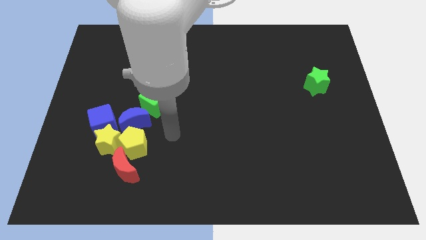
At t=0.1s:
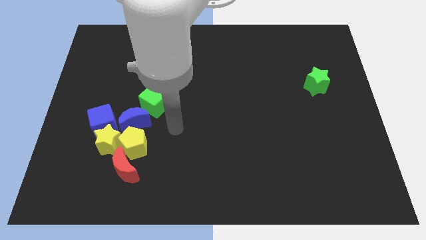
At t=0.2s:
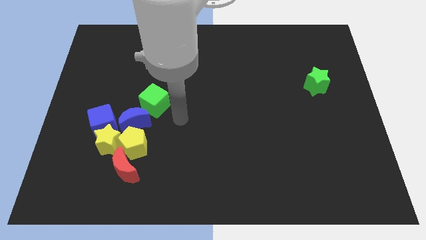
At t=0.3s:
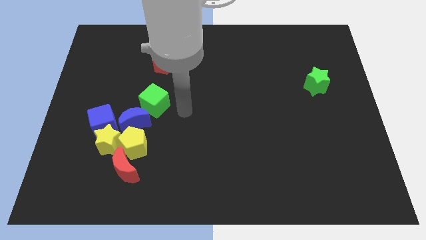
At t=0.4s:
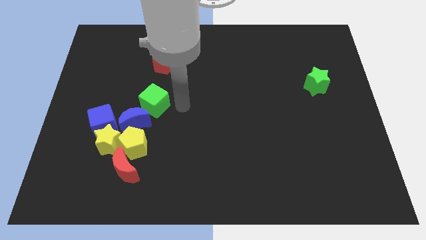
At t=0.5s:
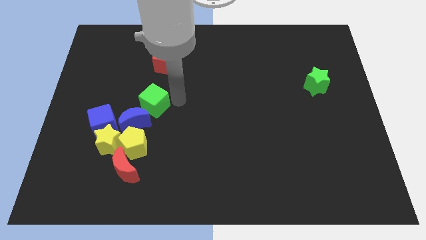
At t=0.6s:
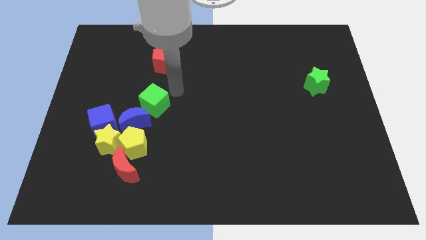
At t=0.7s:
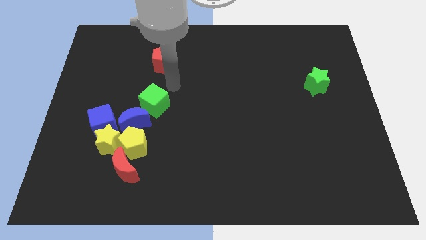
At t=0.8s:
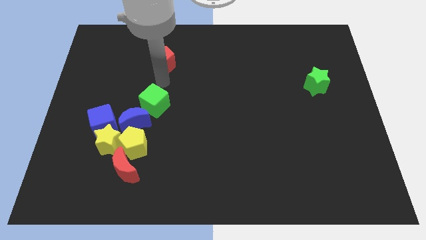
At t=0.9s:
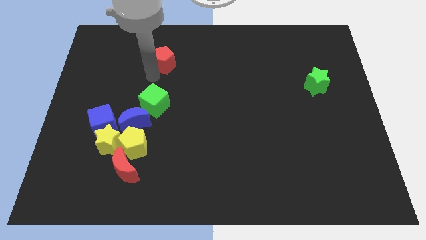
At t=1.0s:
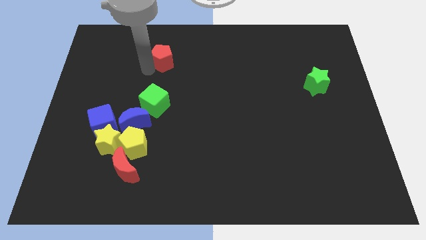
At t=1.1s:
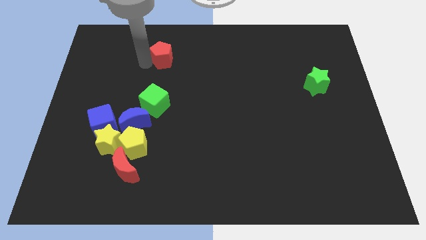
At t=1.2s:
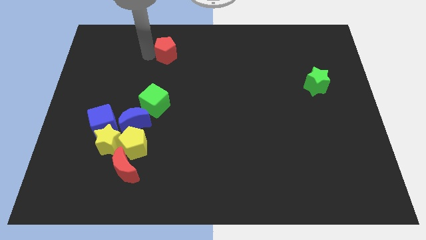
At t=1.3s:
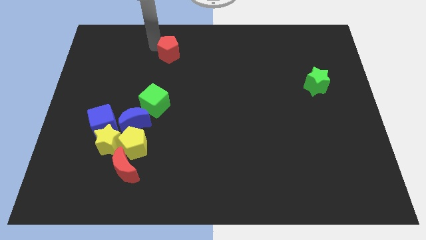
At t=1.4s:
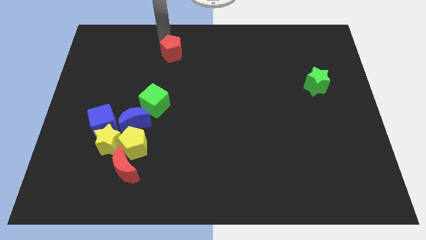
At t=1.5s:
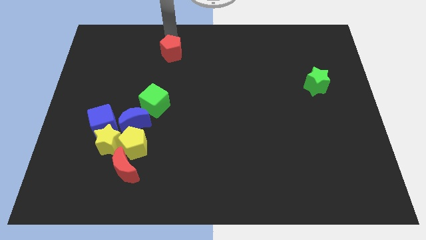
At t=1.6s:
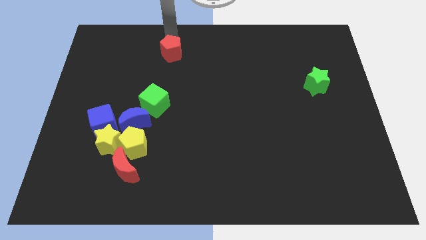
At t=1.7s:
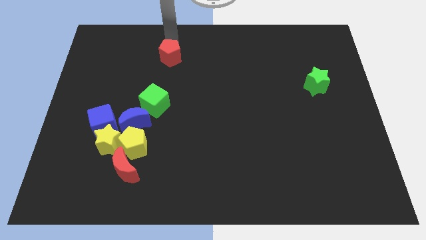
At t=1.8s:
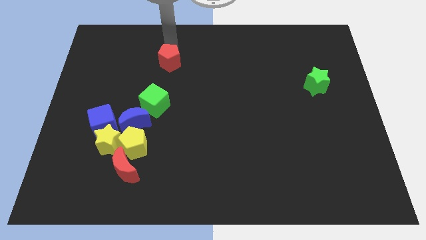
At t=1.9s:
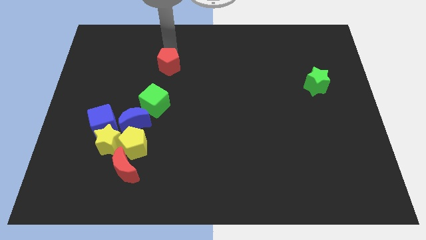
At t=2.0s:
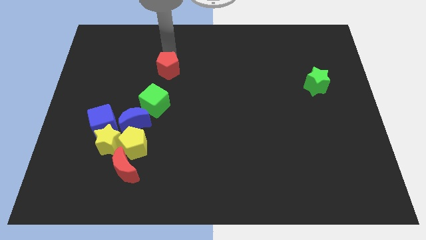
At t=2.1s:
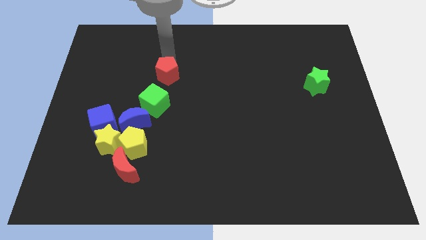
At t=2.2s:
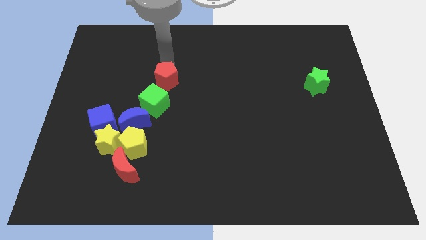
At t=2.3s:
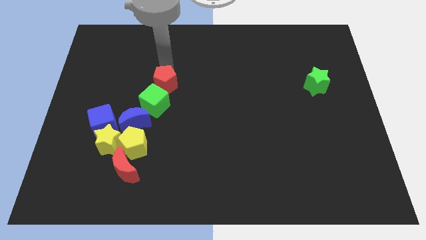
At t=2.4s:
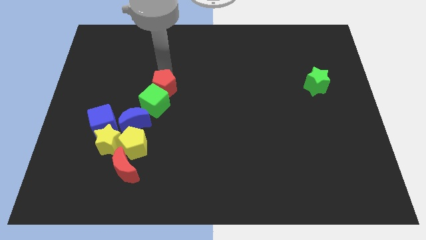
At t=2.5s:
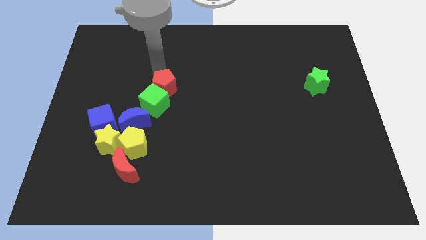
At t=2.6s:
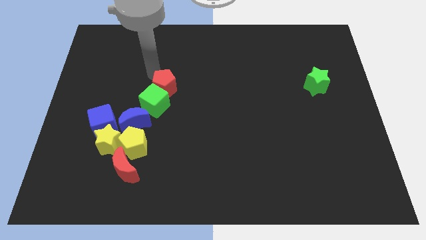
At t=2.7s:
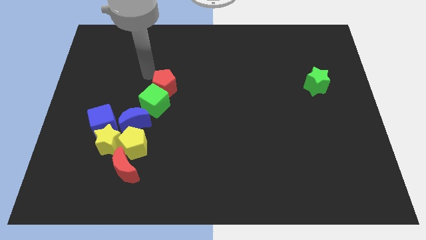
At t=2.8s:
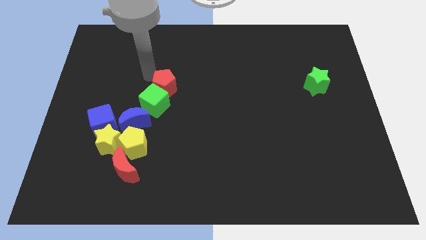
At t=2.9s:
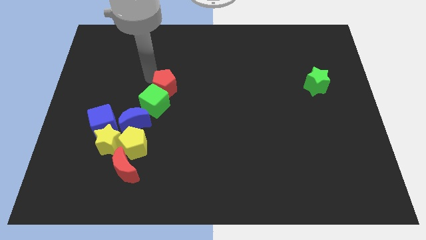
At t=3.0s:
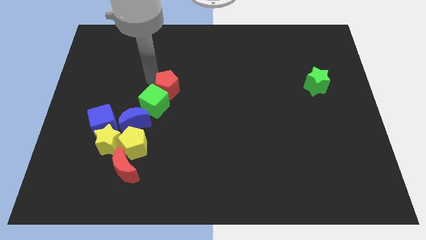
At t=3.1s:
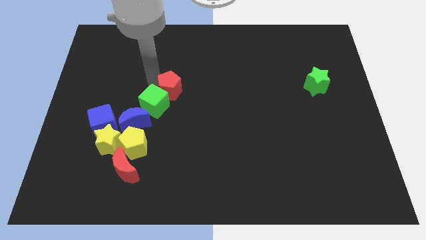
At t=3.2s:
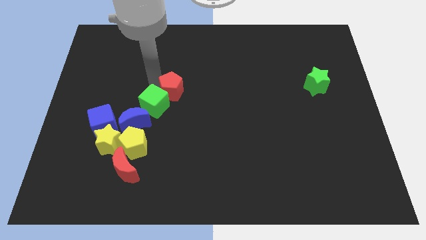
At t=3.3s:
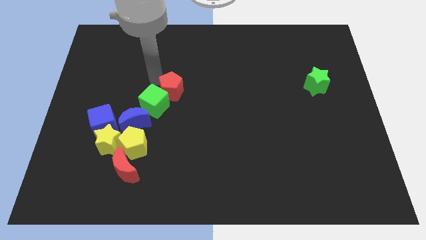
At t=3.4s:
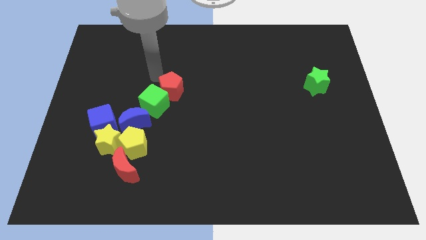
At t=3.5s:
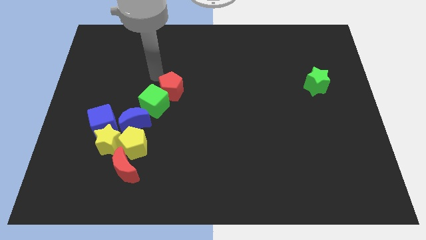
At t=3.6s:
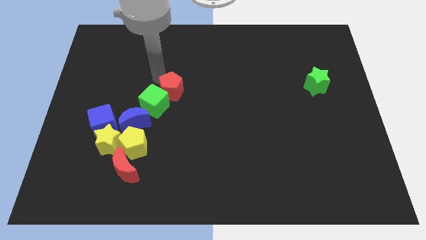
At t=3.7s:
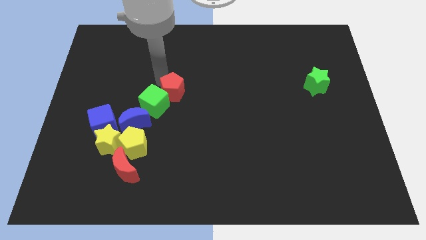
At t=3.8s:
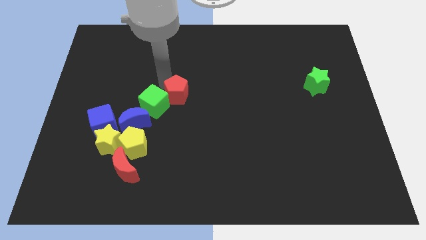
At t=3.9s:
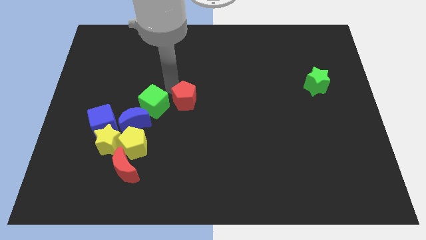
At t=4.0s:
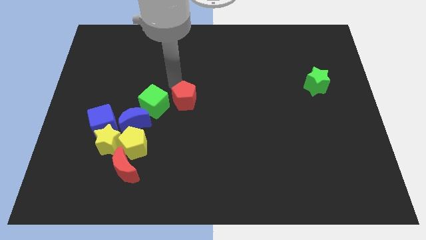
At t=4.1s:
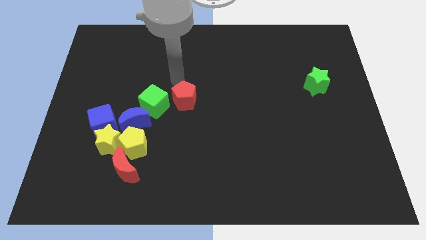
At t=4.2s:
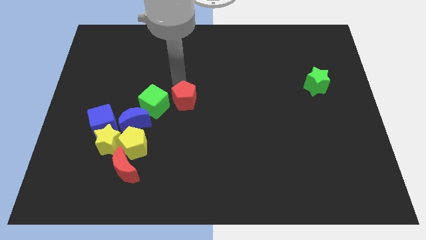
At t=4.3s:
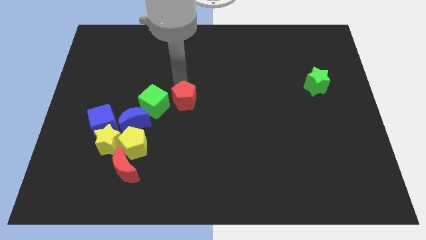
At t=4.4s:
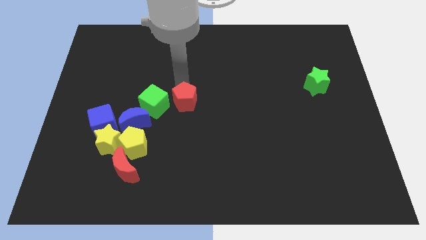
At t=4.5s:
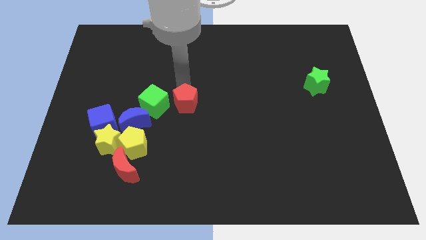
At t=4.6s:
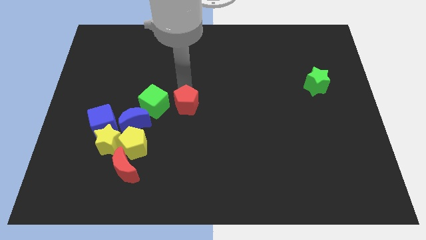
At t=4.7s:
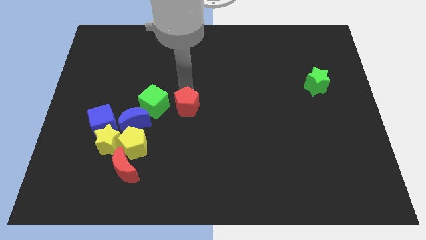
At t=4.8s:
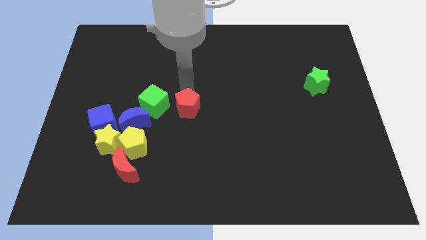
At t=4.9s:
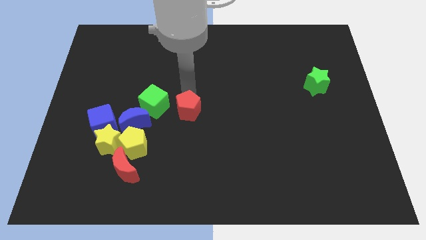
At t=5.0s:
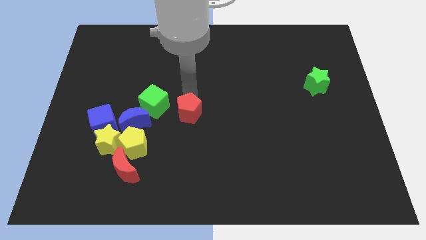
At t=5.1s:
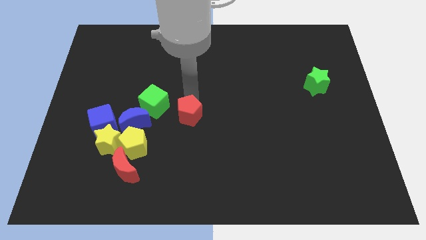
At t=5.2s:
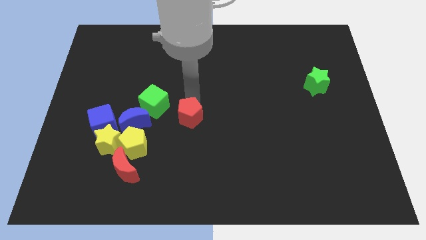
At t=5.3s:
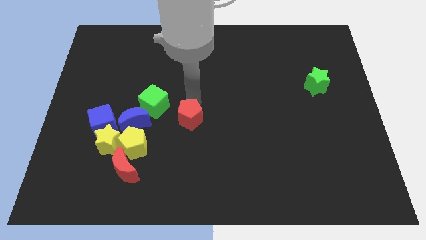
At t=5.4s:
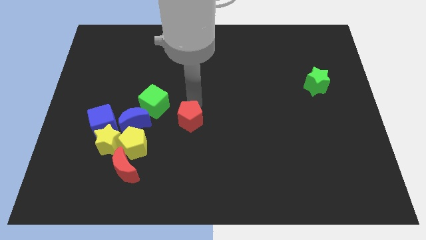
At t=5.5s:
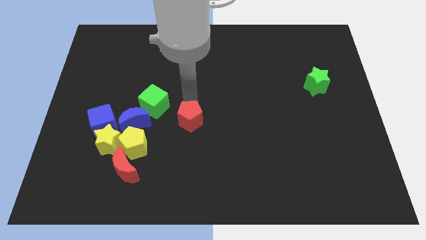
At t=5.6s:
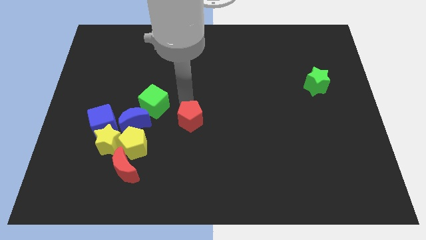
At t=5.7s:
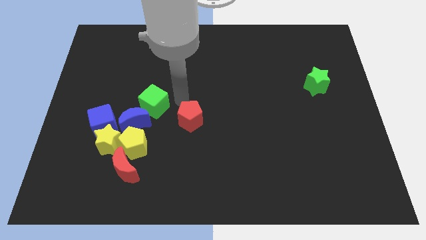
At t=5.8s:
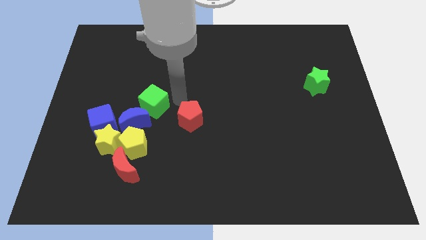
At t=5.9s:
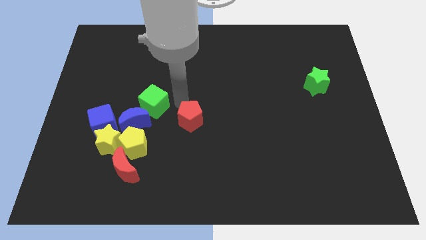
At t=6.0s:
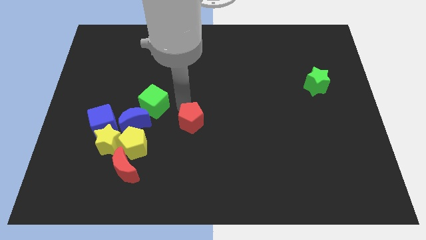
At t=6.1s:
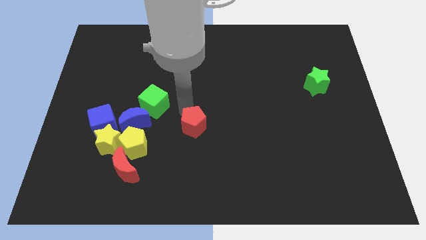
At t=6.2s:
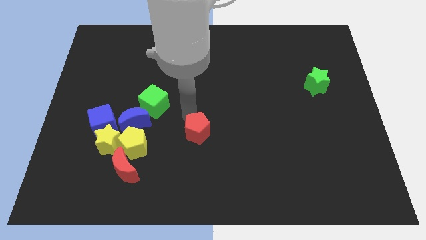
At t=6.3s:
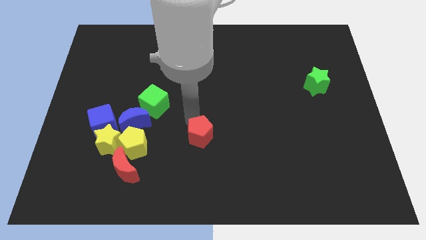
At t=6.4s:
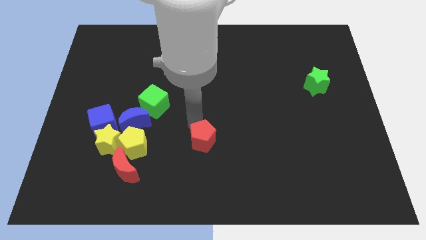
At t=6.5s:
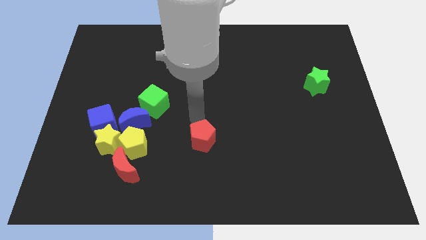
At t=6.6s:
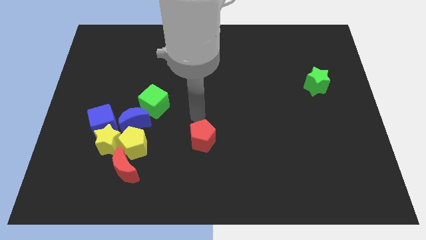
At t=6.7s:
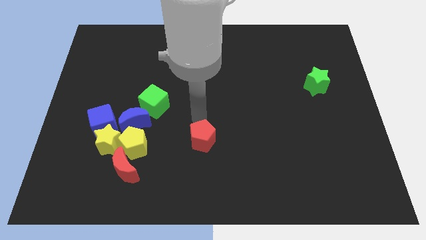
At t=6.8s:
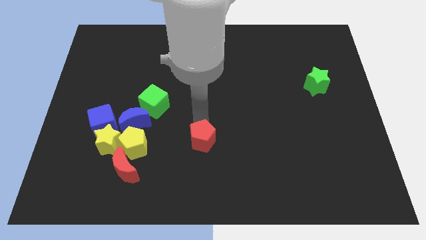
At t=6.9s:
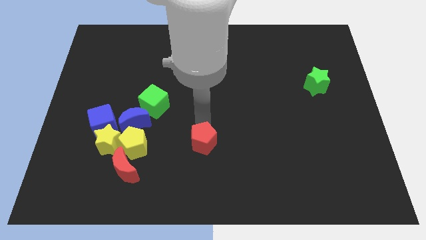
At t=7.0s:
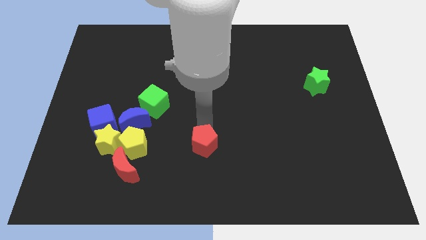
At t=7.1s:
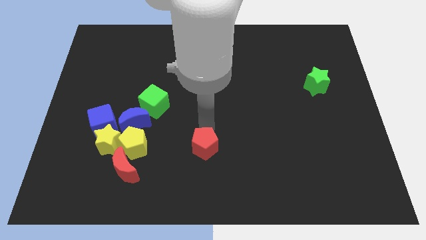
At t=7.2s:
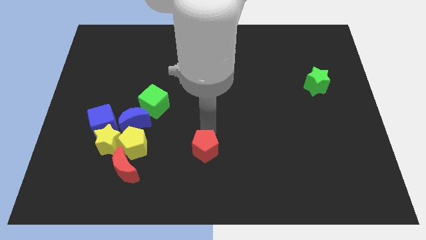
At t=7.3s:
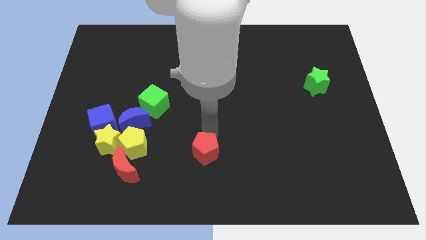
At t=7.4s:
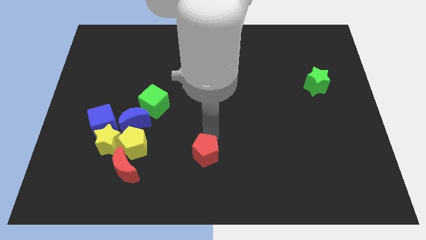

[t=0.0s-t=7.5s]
slide the red pentagon to the bottom
